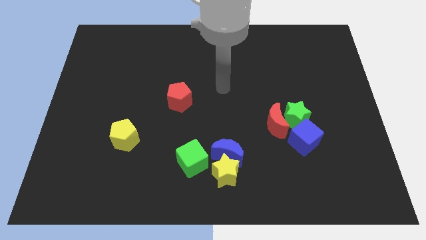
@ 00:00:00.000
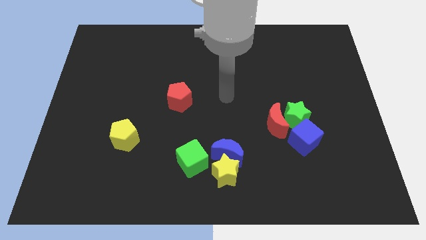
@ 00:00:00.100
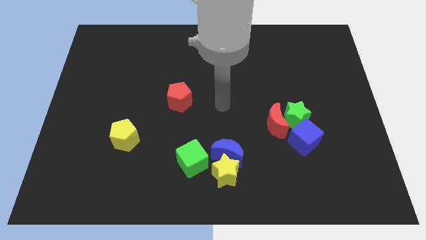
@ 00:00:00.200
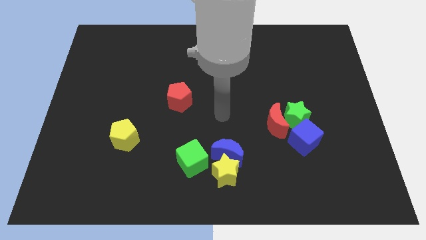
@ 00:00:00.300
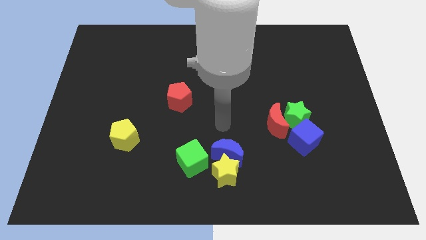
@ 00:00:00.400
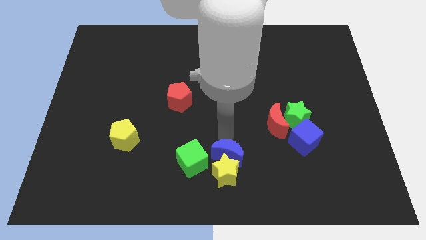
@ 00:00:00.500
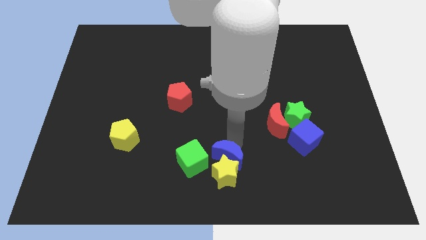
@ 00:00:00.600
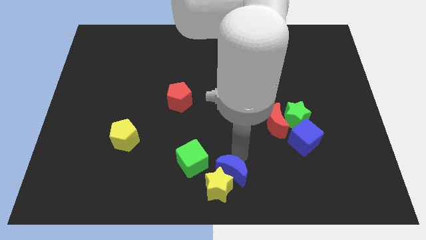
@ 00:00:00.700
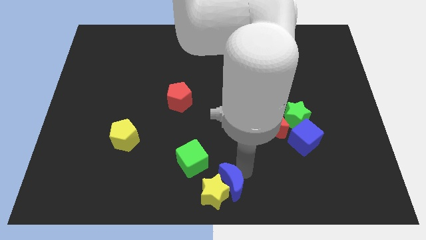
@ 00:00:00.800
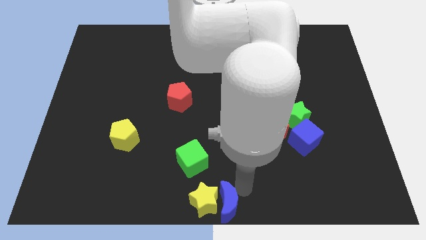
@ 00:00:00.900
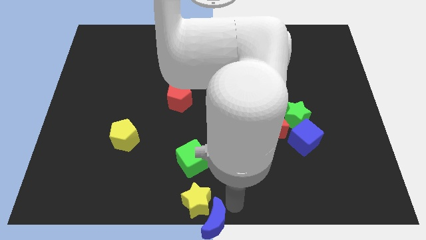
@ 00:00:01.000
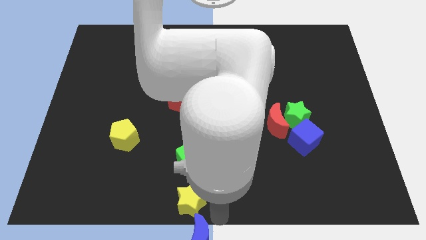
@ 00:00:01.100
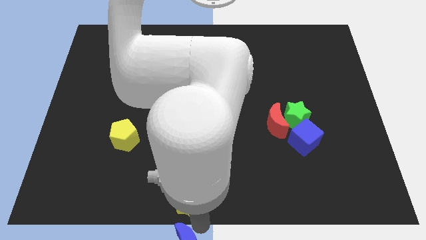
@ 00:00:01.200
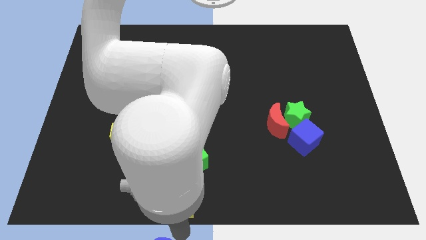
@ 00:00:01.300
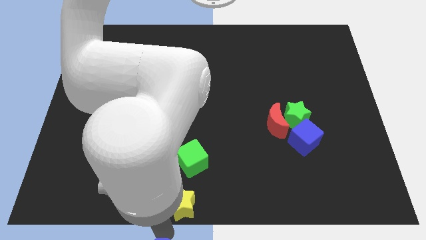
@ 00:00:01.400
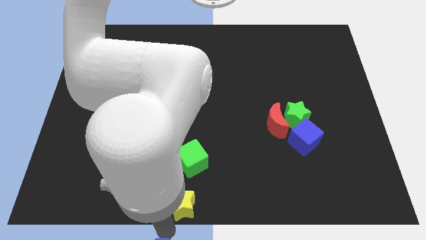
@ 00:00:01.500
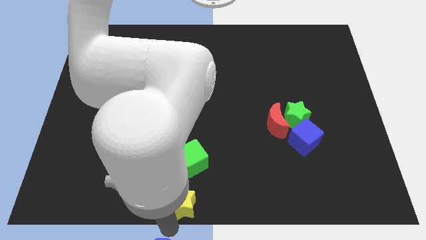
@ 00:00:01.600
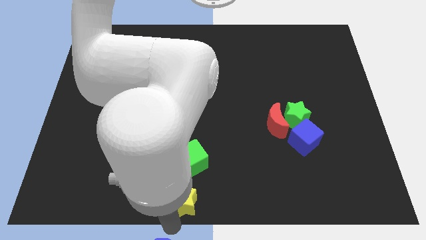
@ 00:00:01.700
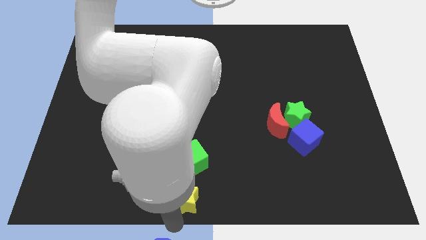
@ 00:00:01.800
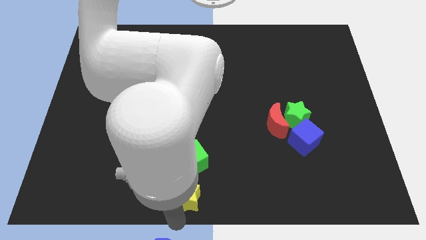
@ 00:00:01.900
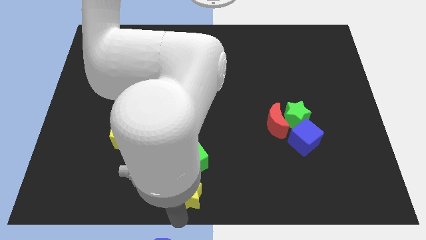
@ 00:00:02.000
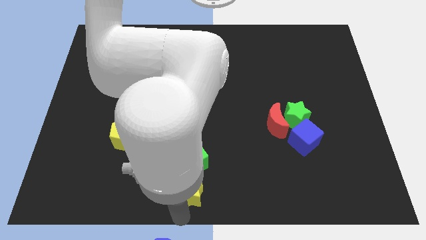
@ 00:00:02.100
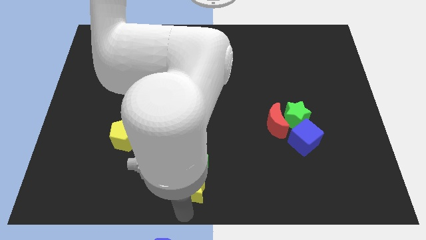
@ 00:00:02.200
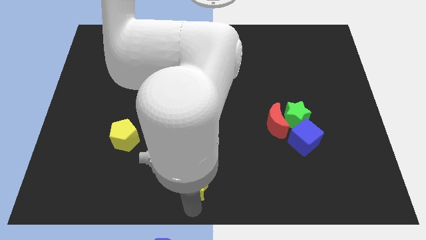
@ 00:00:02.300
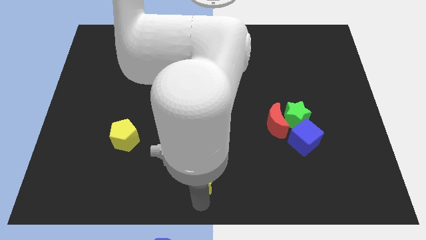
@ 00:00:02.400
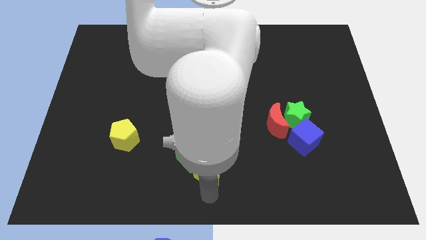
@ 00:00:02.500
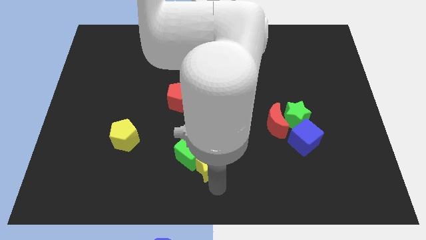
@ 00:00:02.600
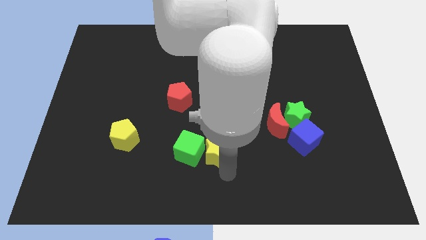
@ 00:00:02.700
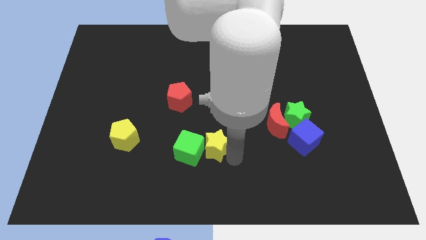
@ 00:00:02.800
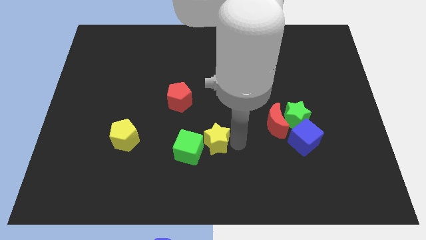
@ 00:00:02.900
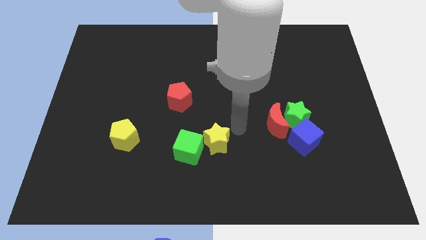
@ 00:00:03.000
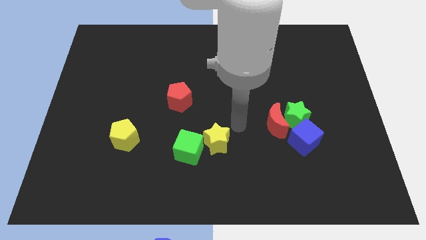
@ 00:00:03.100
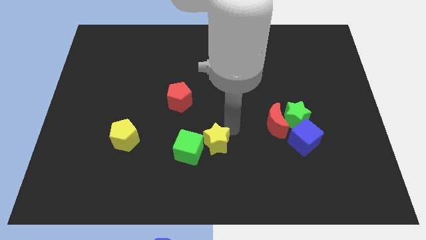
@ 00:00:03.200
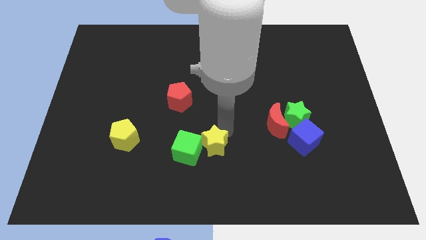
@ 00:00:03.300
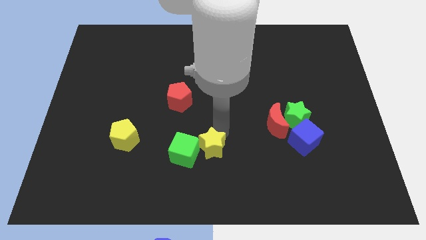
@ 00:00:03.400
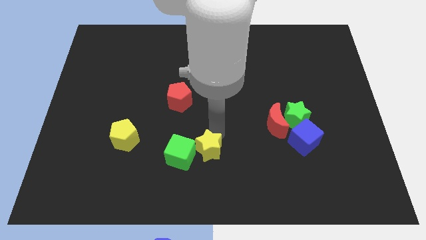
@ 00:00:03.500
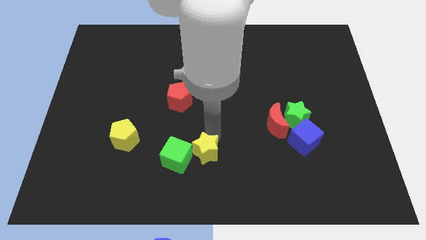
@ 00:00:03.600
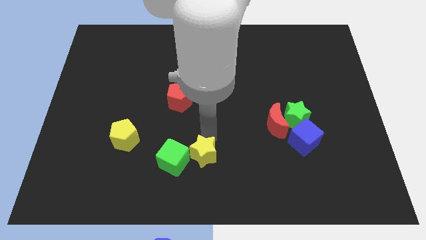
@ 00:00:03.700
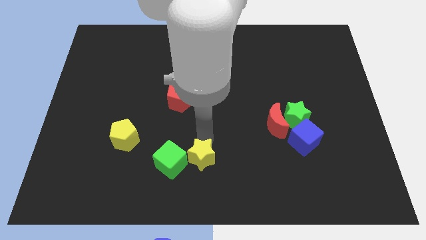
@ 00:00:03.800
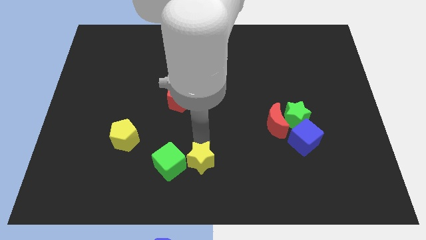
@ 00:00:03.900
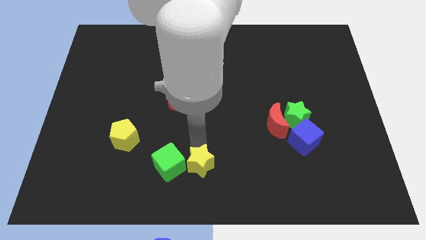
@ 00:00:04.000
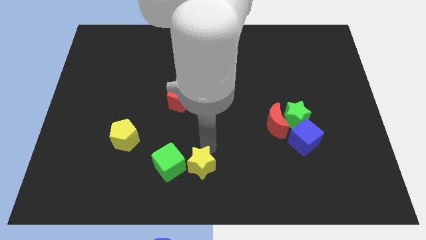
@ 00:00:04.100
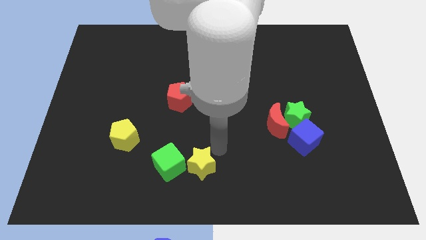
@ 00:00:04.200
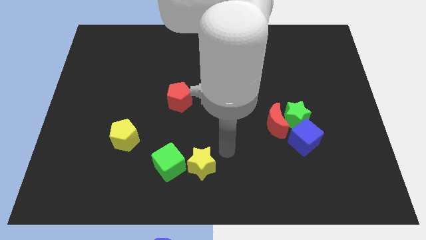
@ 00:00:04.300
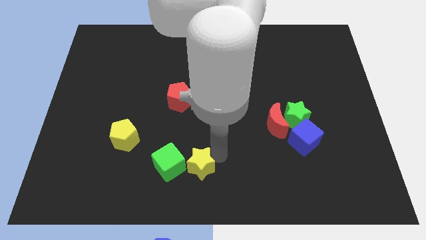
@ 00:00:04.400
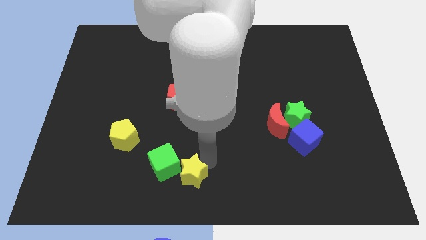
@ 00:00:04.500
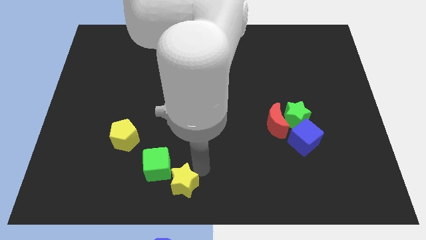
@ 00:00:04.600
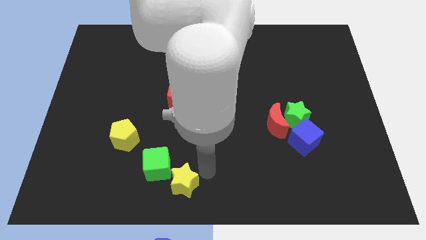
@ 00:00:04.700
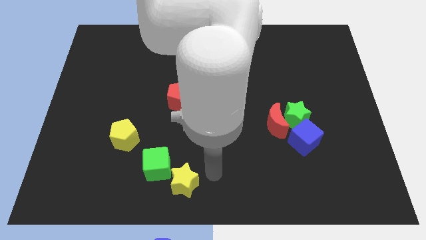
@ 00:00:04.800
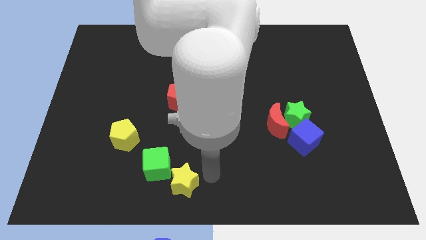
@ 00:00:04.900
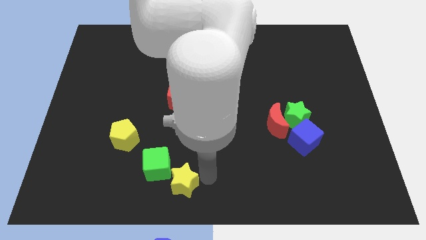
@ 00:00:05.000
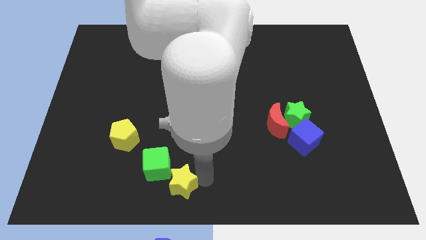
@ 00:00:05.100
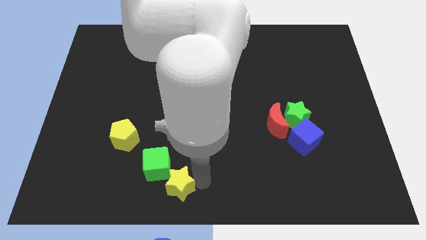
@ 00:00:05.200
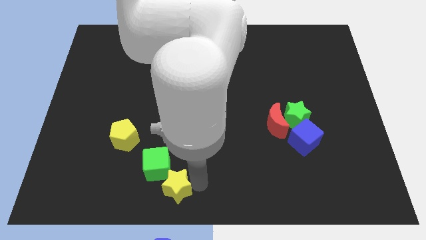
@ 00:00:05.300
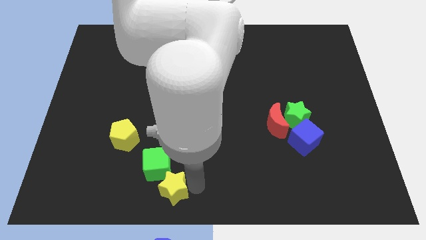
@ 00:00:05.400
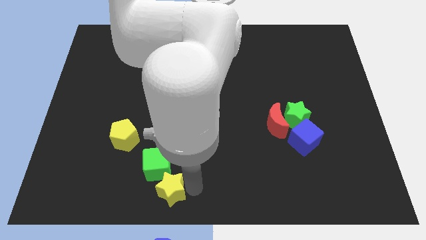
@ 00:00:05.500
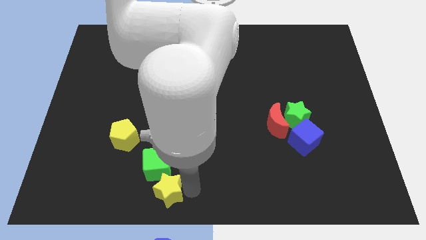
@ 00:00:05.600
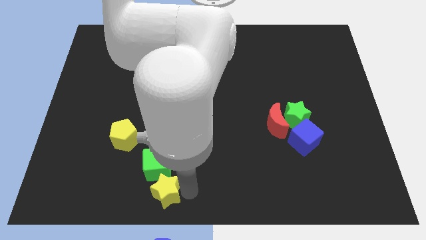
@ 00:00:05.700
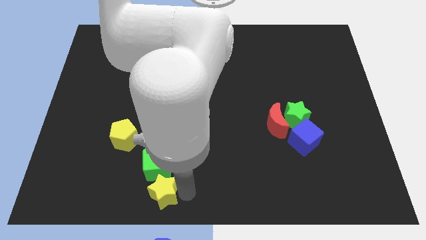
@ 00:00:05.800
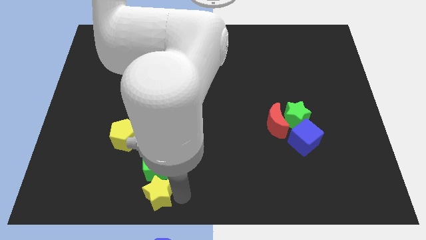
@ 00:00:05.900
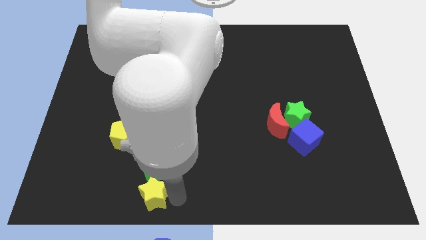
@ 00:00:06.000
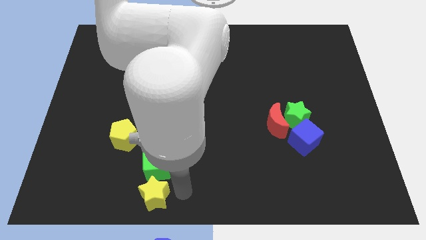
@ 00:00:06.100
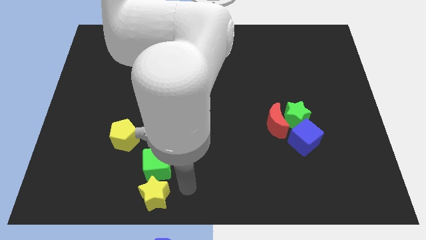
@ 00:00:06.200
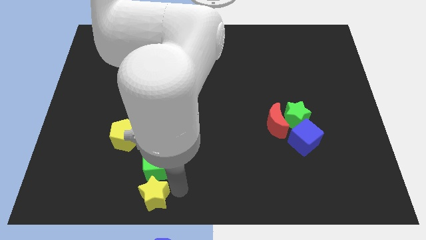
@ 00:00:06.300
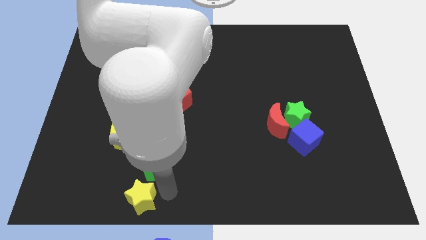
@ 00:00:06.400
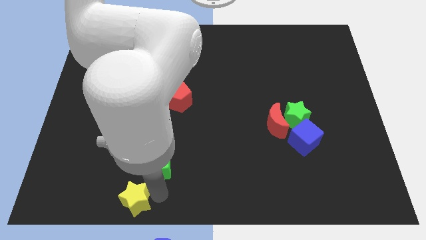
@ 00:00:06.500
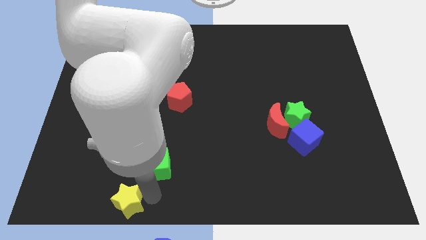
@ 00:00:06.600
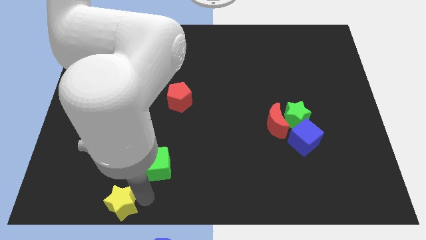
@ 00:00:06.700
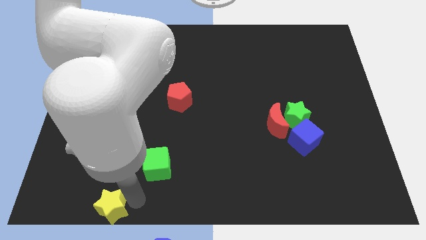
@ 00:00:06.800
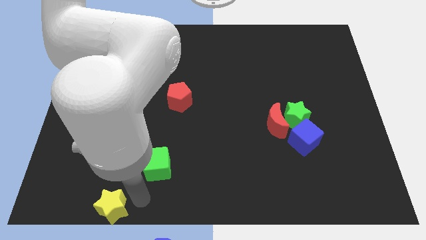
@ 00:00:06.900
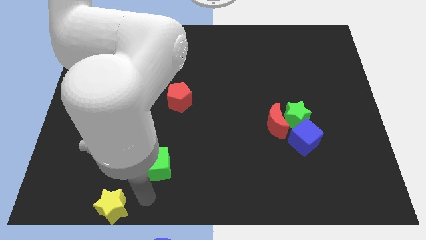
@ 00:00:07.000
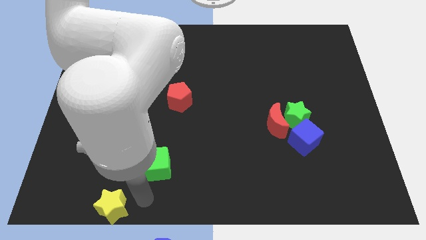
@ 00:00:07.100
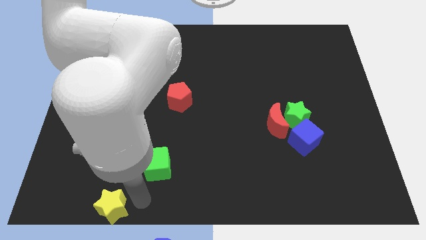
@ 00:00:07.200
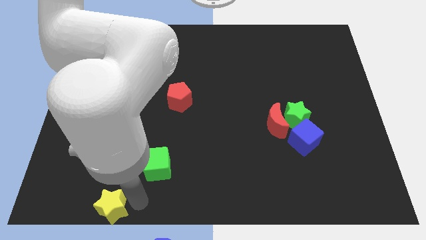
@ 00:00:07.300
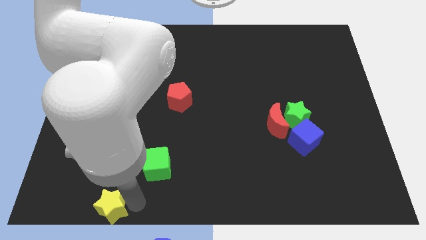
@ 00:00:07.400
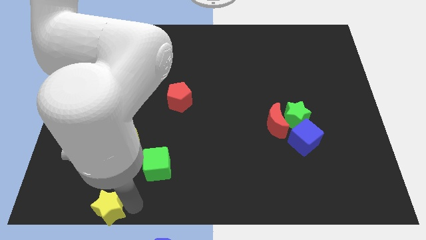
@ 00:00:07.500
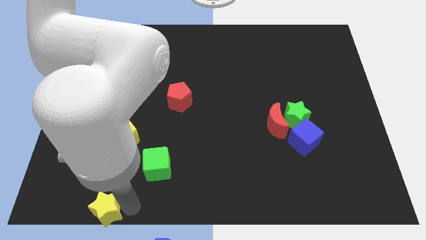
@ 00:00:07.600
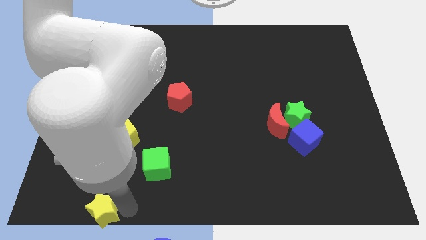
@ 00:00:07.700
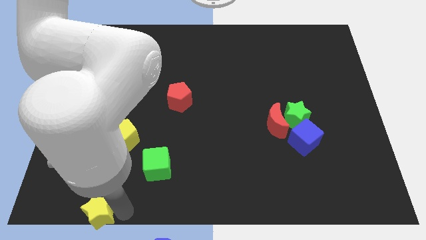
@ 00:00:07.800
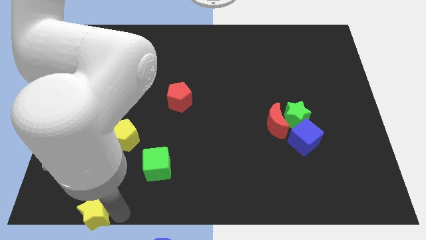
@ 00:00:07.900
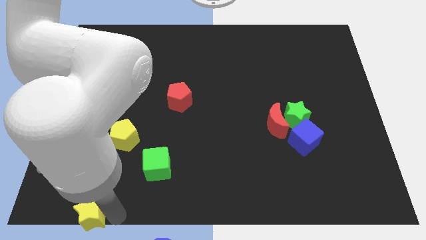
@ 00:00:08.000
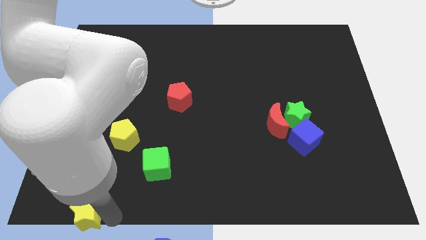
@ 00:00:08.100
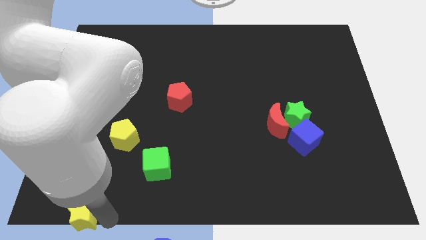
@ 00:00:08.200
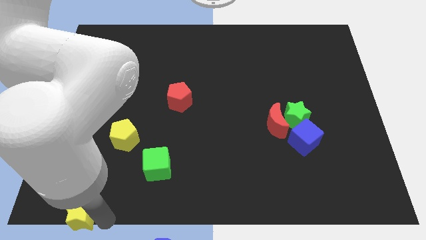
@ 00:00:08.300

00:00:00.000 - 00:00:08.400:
slide the yellow star to the lower left corner
